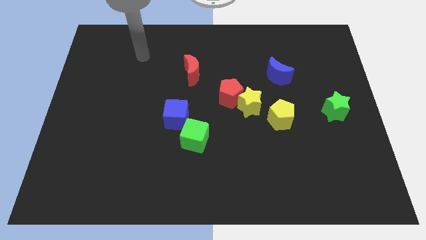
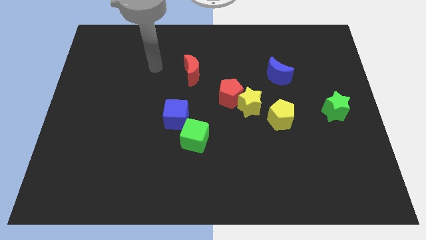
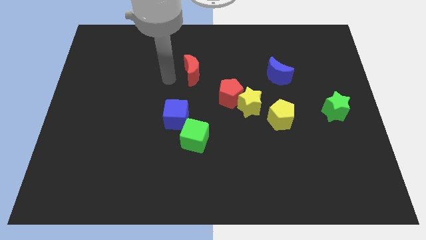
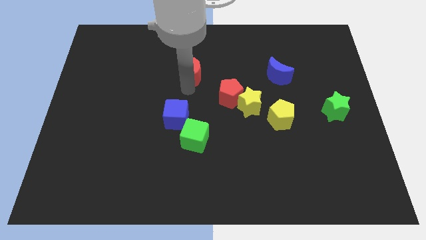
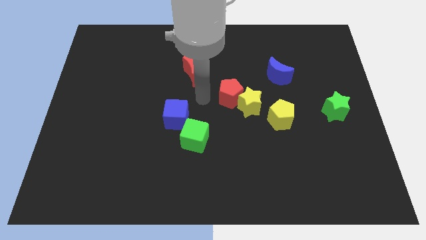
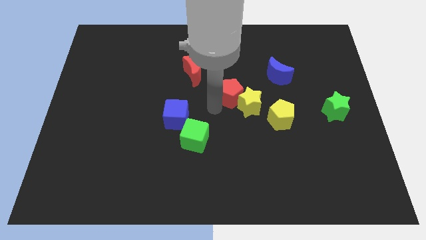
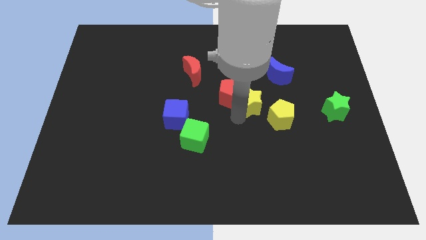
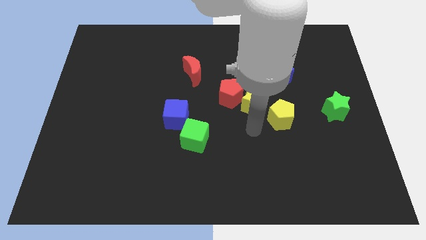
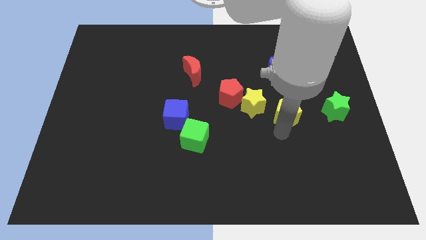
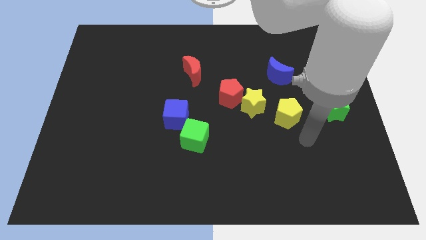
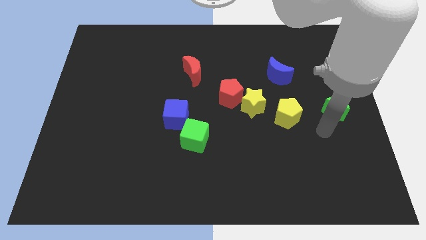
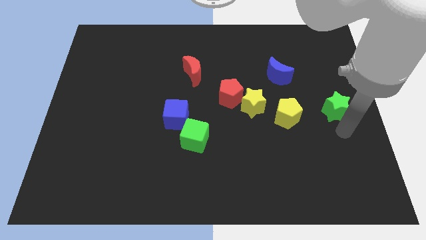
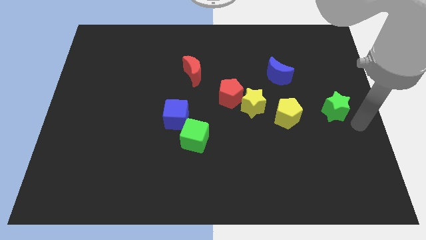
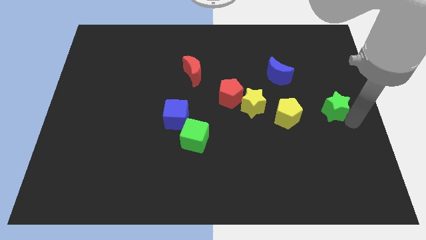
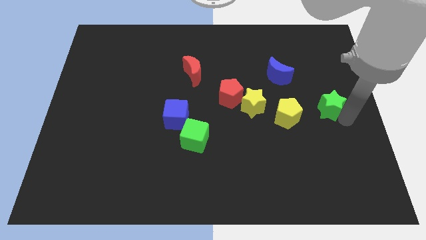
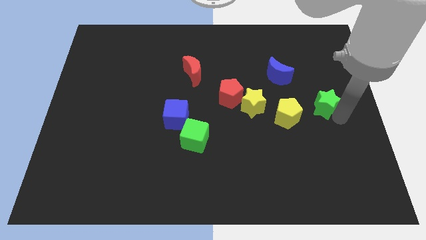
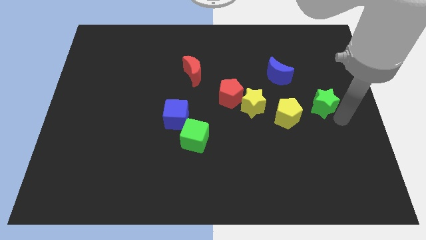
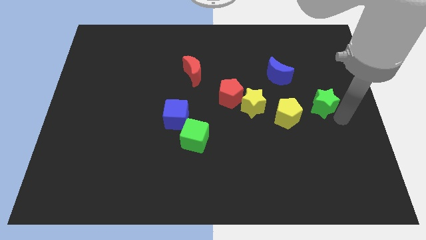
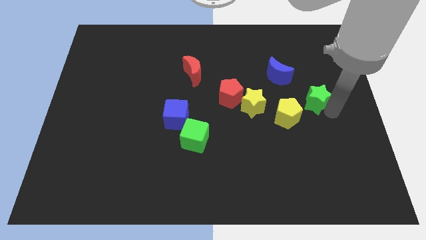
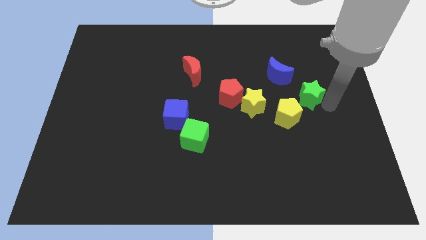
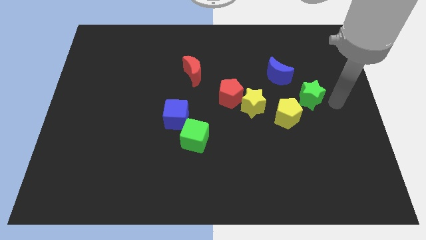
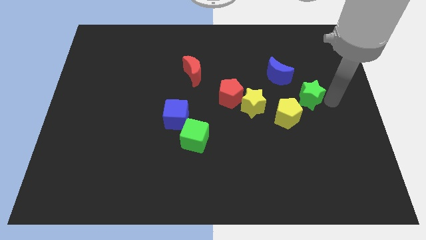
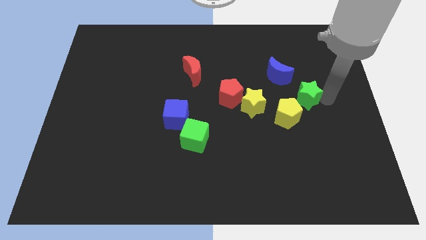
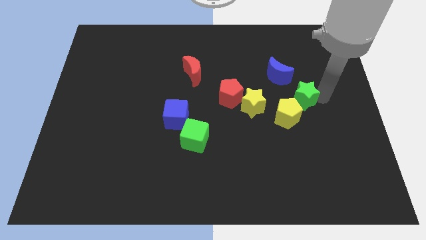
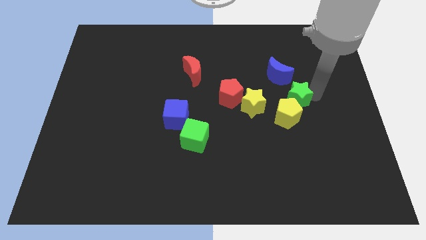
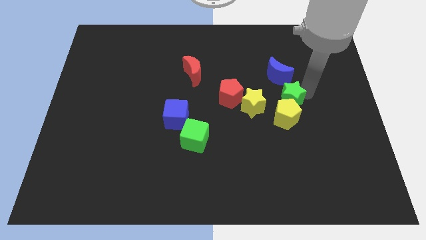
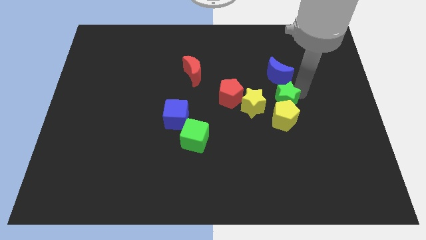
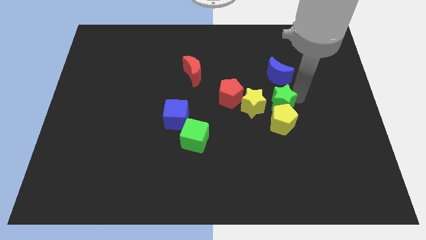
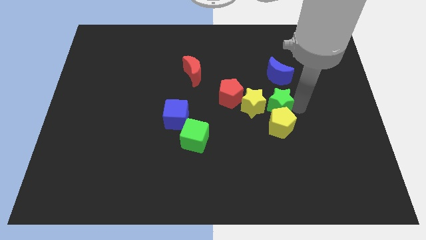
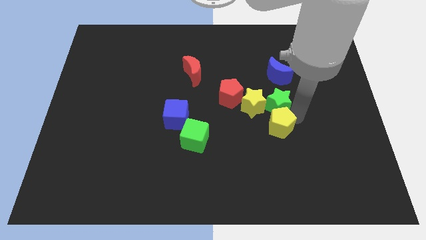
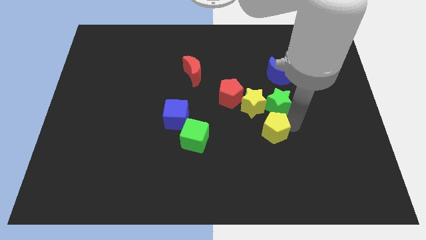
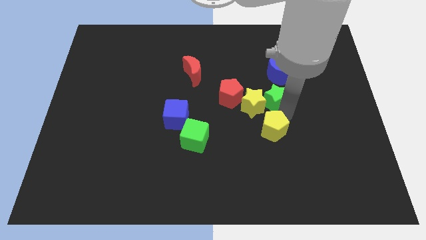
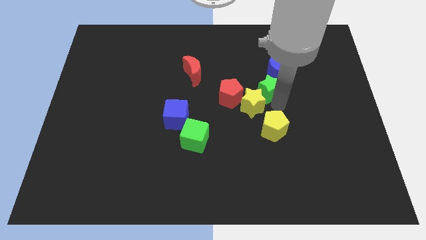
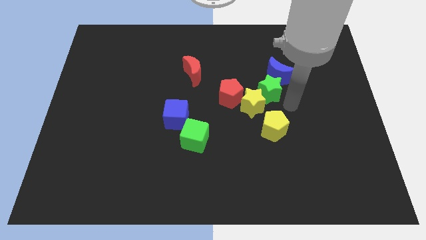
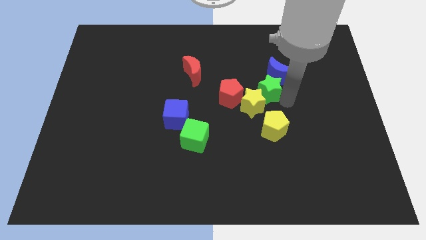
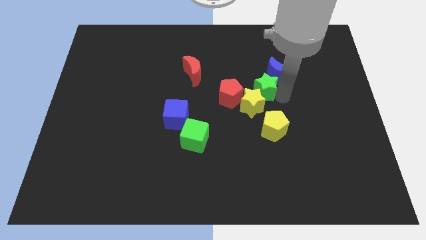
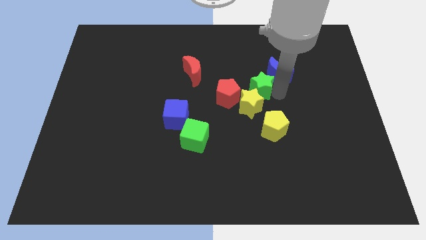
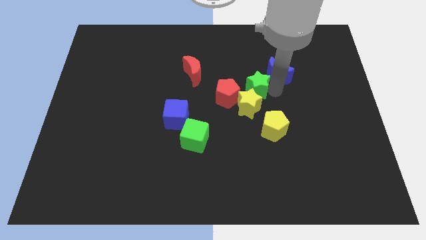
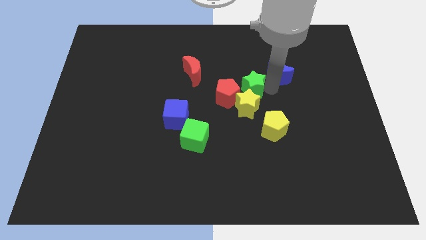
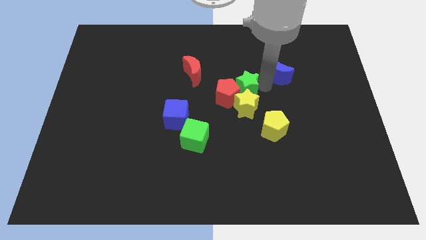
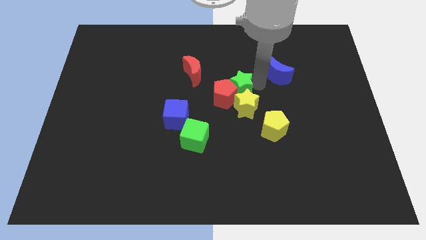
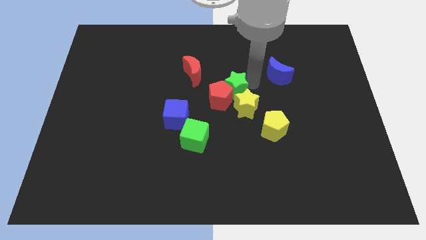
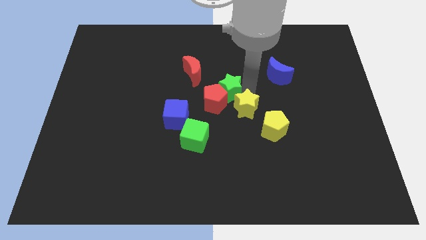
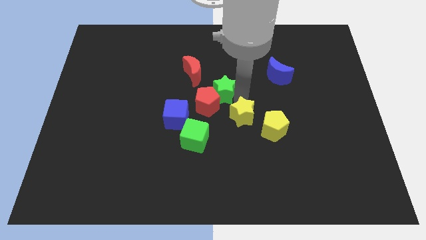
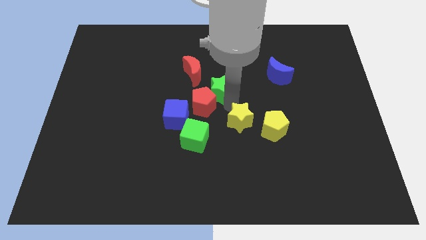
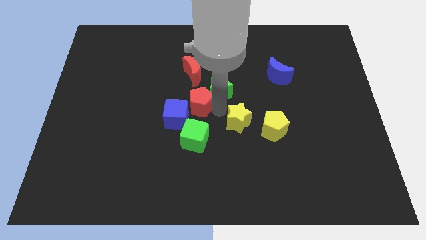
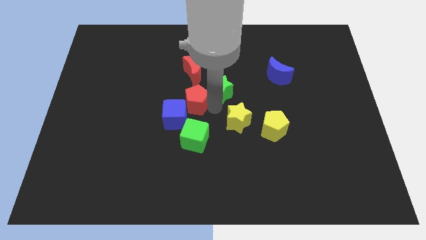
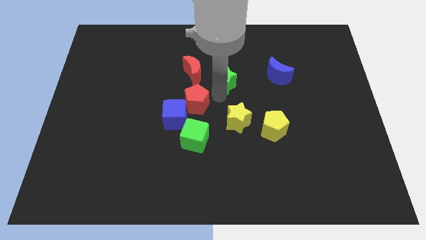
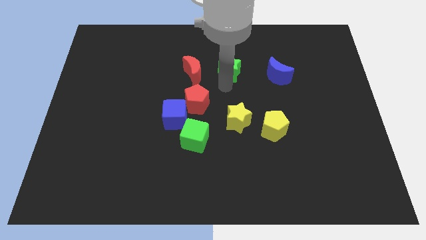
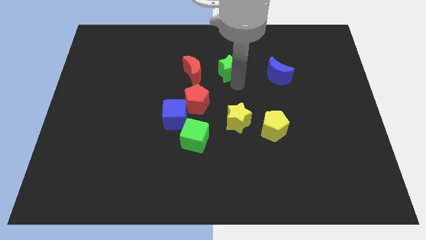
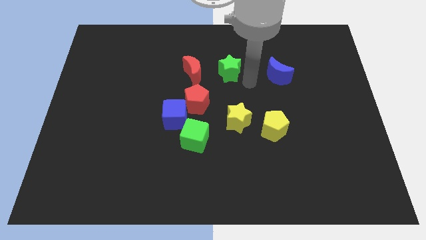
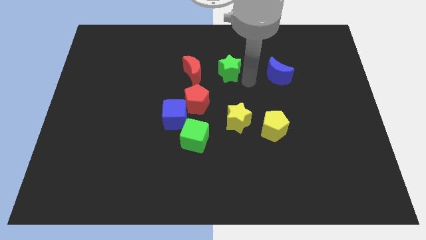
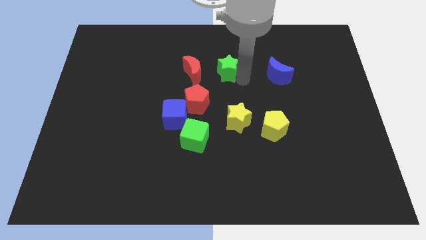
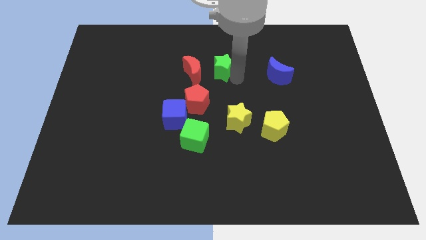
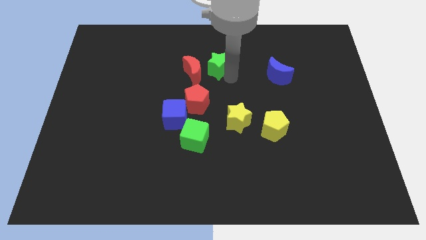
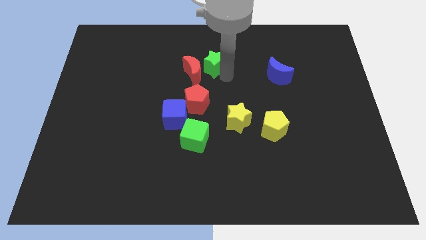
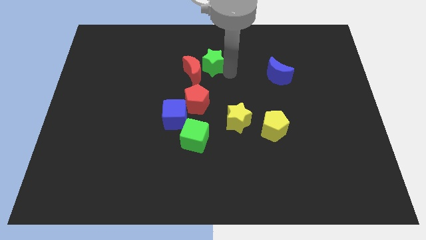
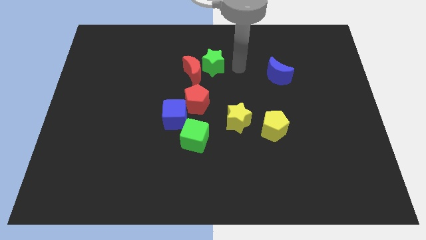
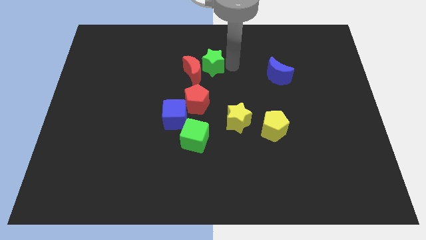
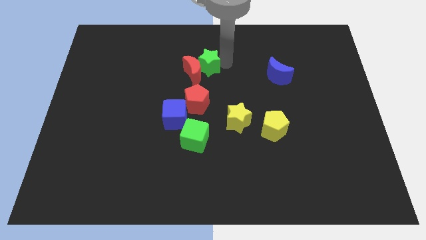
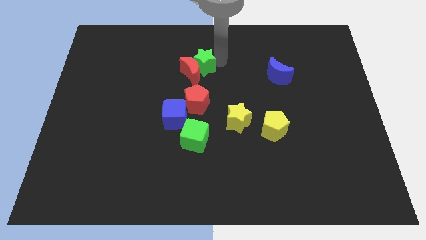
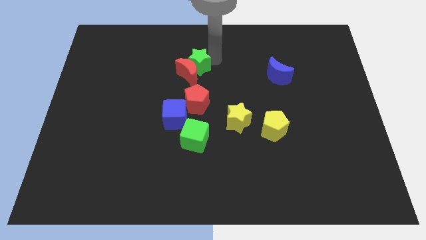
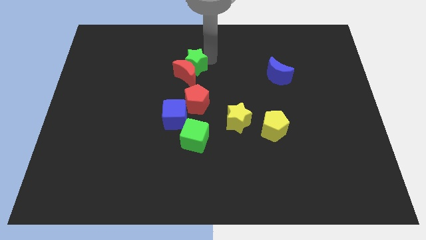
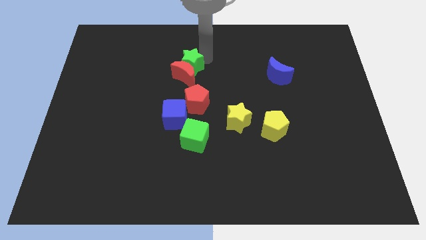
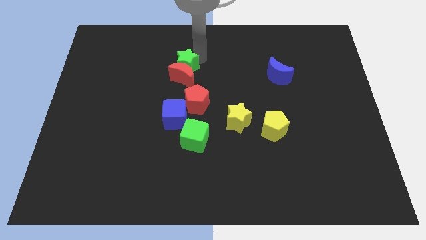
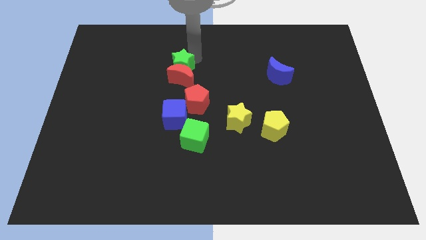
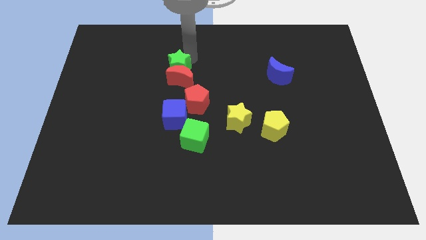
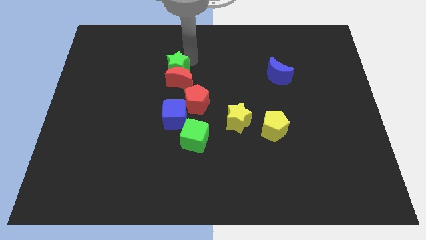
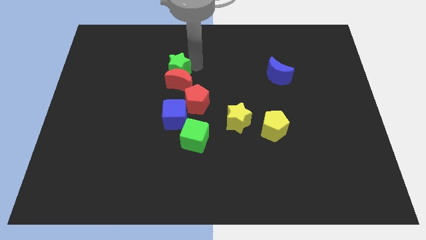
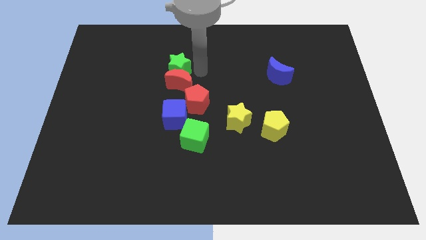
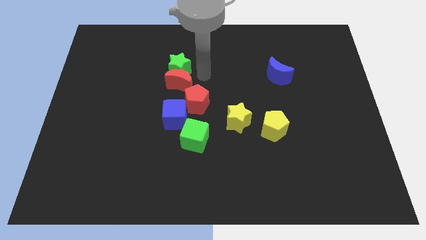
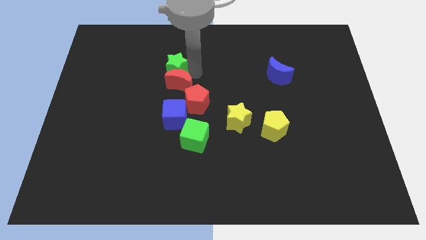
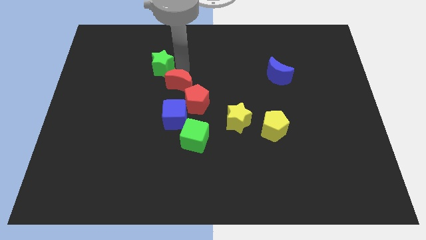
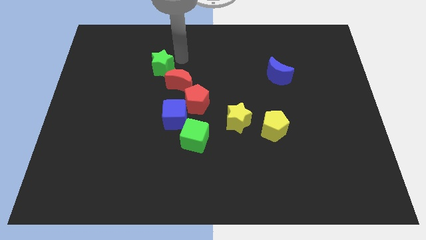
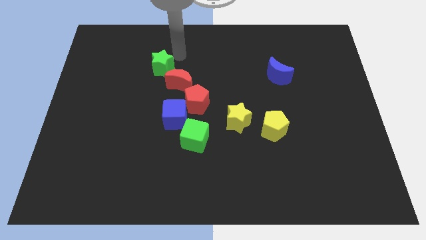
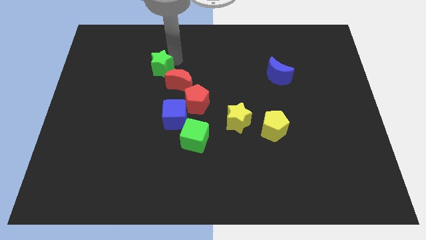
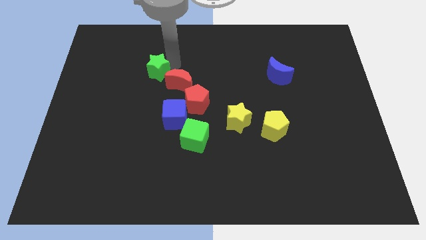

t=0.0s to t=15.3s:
push the green star to the left of the red moon

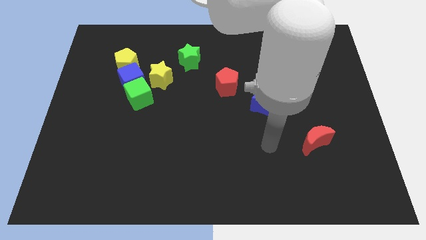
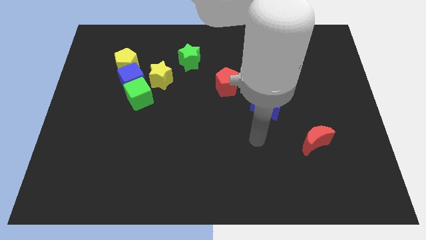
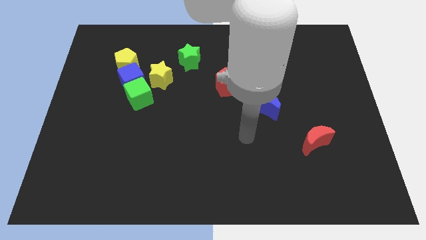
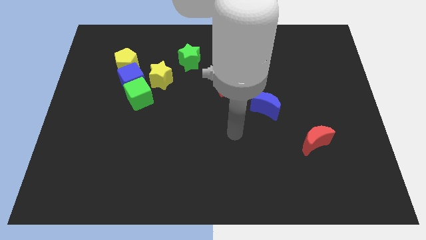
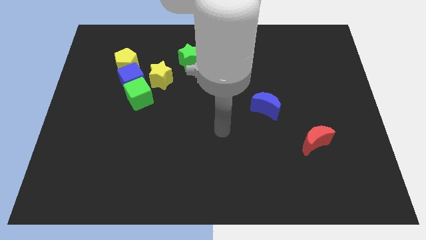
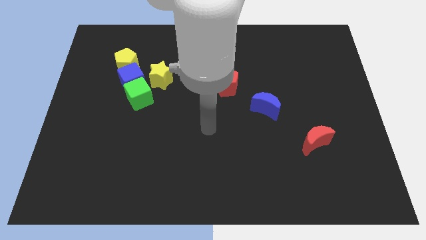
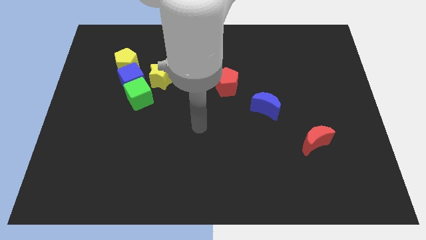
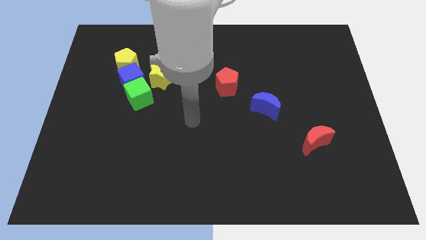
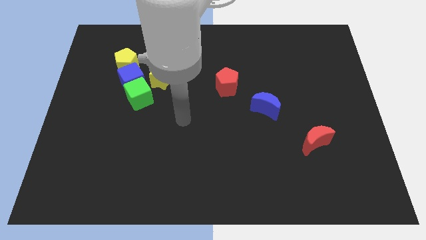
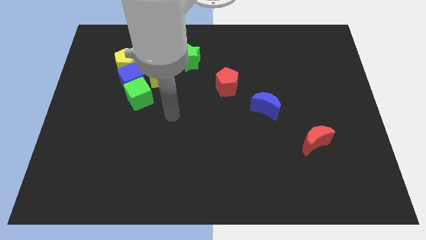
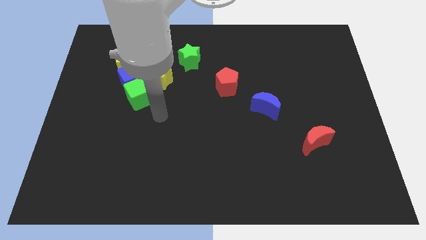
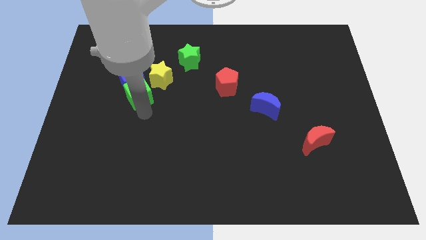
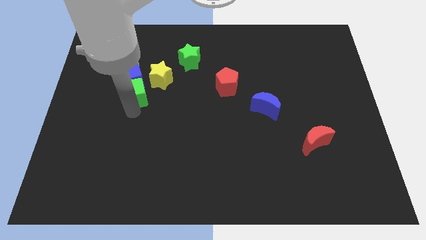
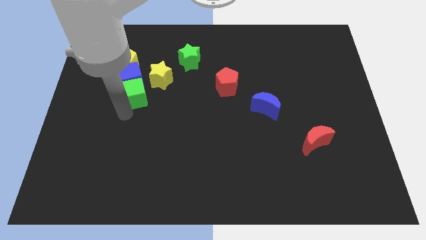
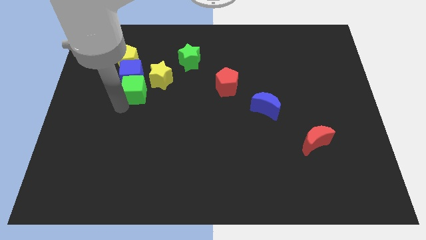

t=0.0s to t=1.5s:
put the yellow star to the right of the green cube
